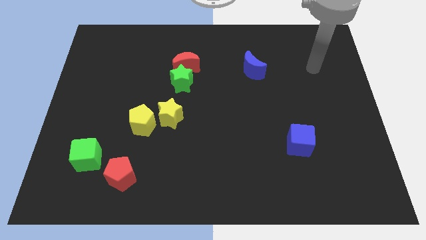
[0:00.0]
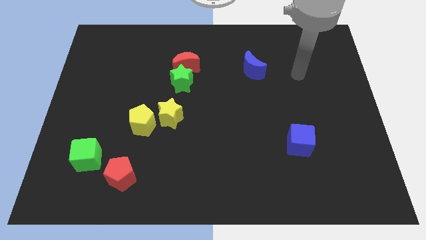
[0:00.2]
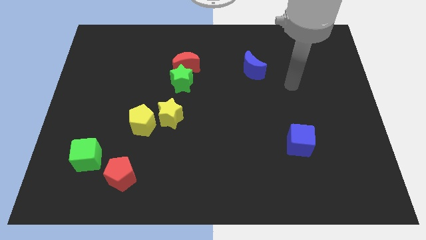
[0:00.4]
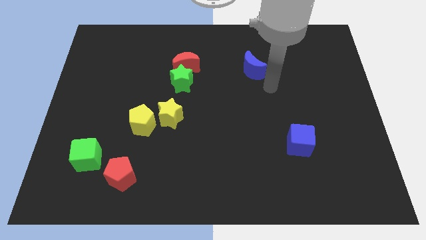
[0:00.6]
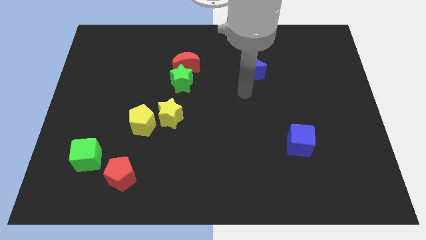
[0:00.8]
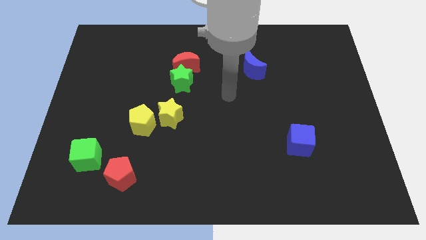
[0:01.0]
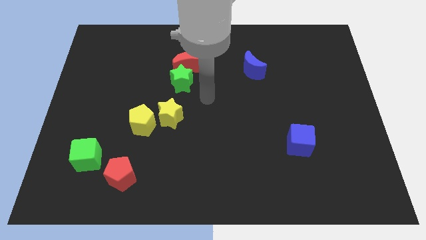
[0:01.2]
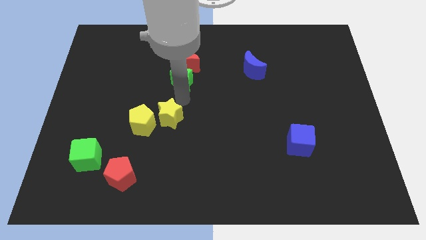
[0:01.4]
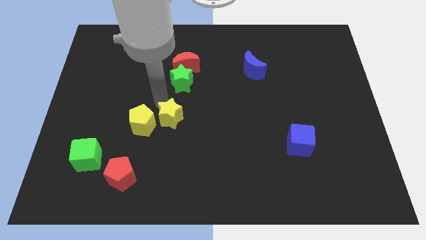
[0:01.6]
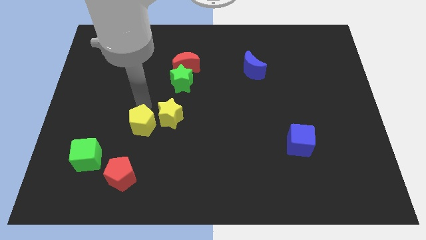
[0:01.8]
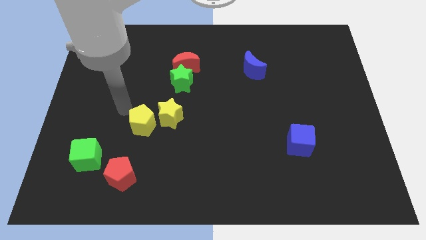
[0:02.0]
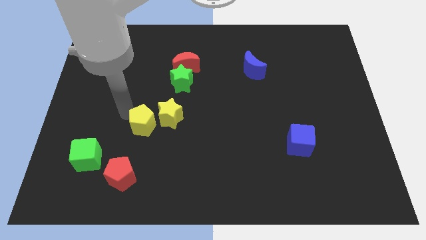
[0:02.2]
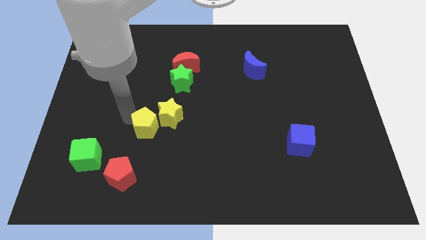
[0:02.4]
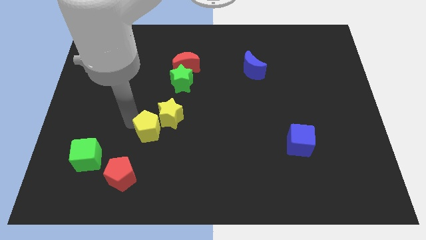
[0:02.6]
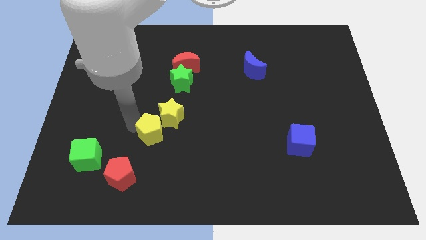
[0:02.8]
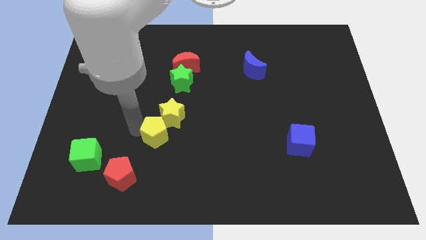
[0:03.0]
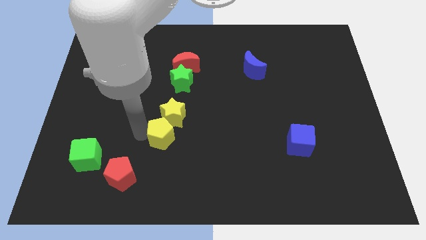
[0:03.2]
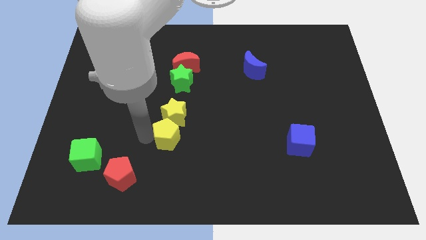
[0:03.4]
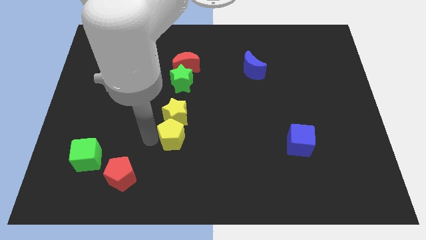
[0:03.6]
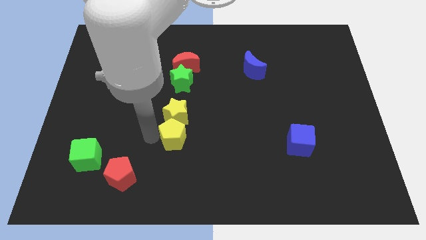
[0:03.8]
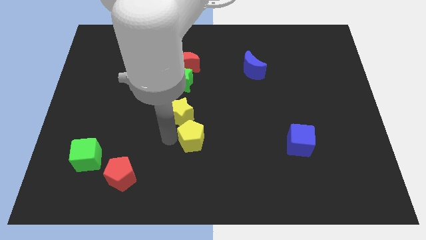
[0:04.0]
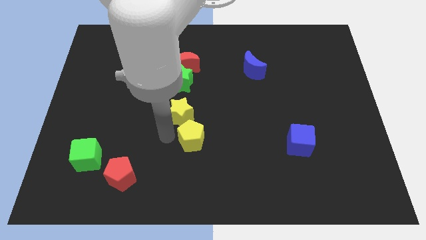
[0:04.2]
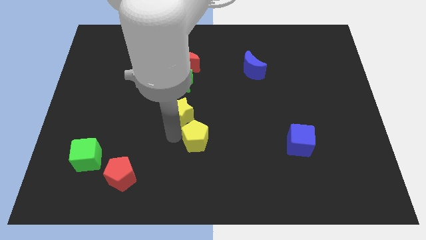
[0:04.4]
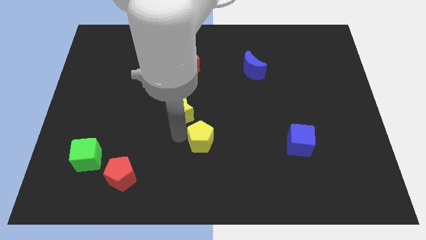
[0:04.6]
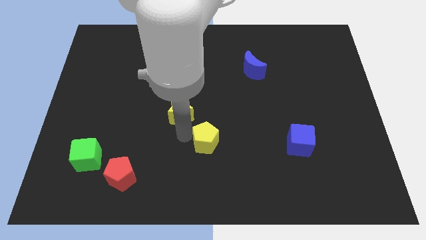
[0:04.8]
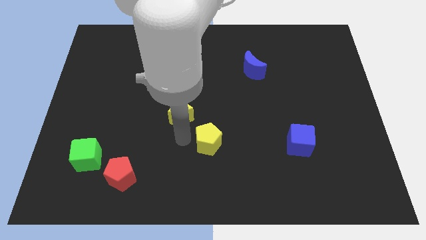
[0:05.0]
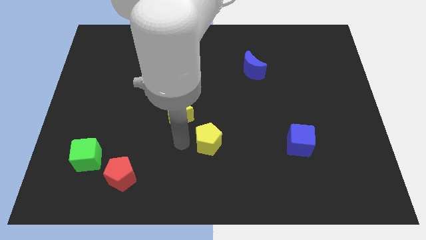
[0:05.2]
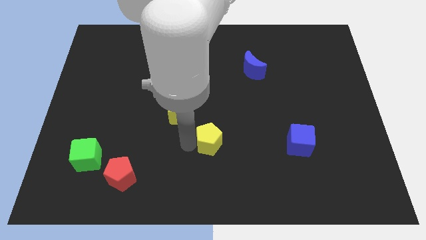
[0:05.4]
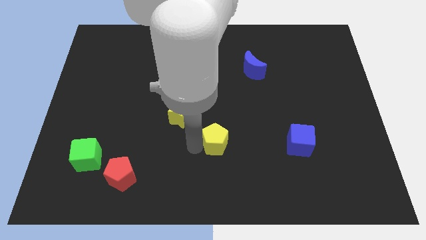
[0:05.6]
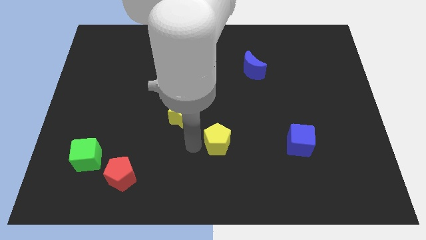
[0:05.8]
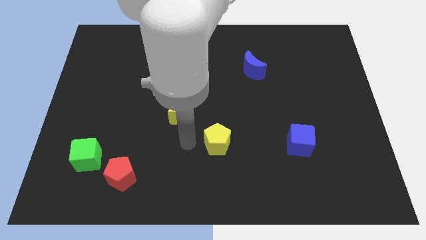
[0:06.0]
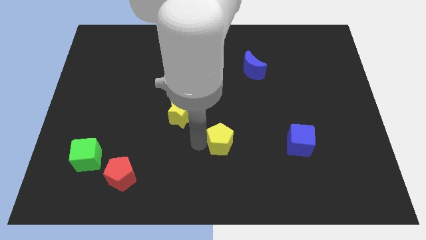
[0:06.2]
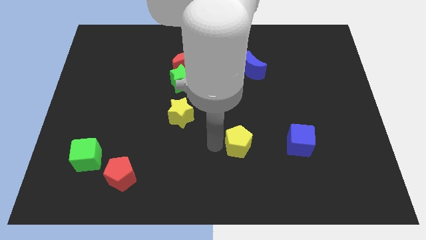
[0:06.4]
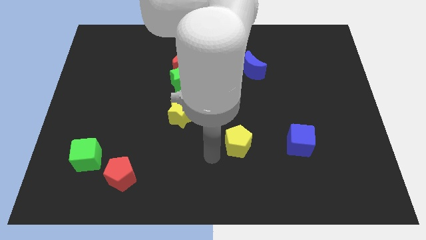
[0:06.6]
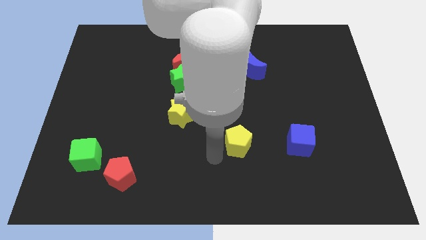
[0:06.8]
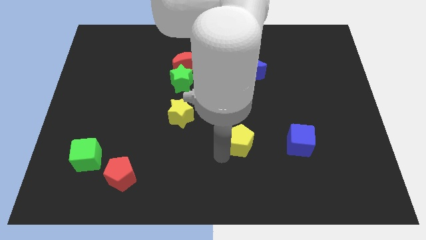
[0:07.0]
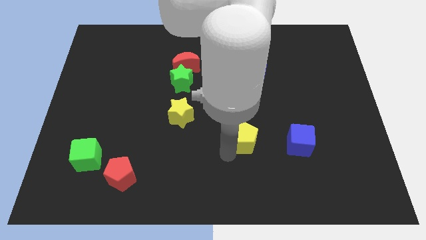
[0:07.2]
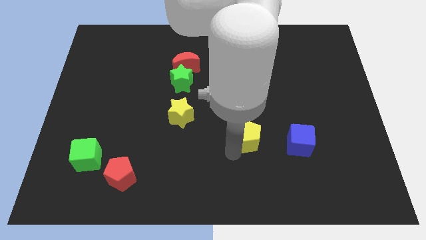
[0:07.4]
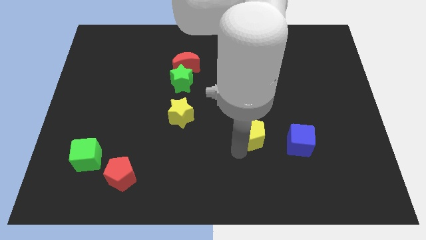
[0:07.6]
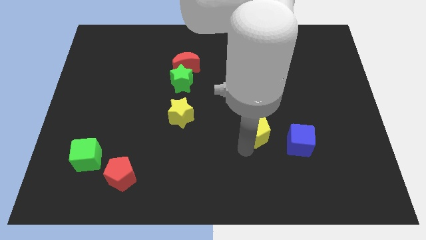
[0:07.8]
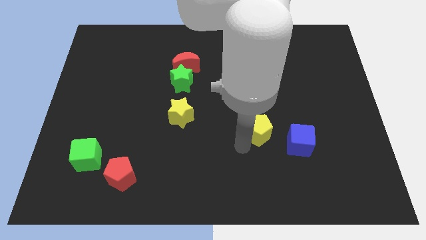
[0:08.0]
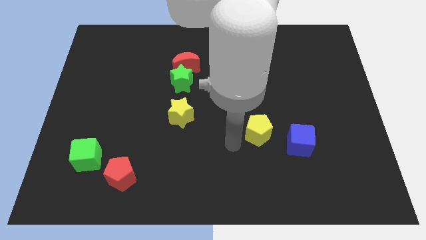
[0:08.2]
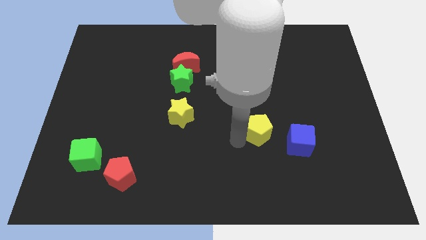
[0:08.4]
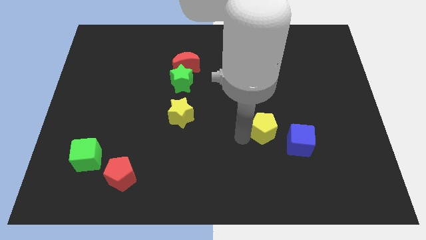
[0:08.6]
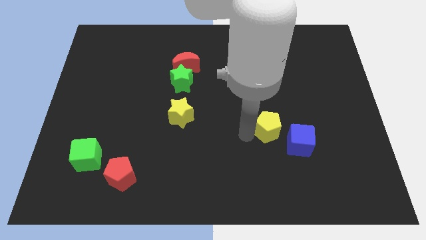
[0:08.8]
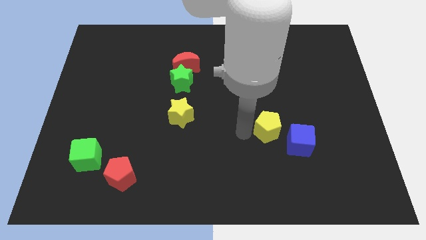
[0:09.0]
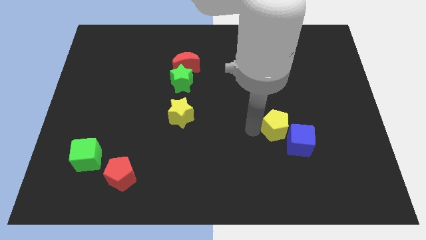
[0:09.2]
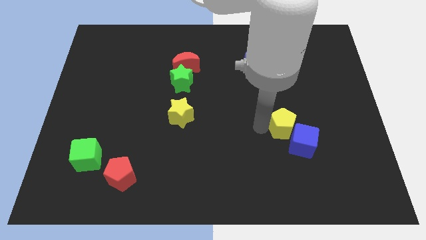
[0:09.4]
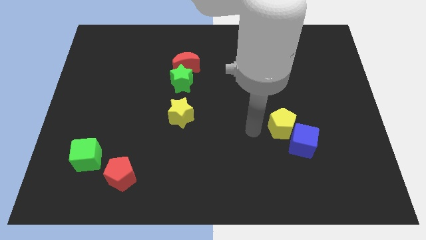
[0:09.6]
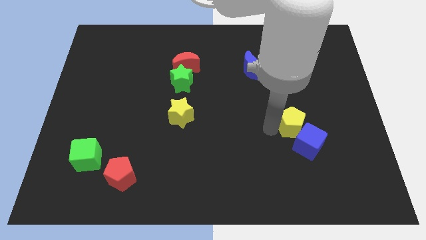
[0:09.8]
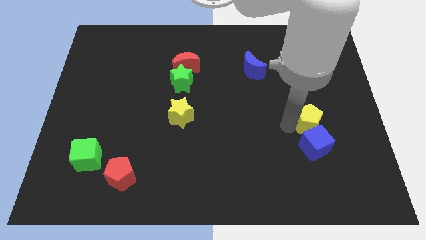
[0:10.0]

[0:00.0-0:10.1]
put the yellow pentagon diagonally up and to the right of the blue cube

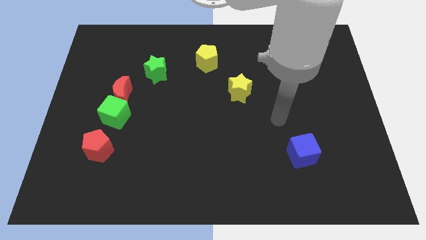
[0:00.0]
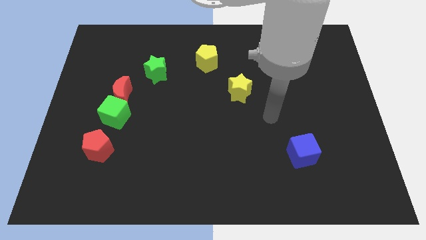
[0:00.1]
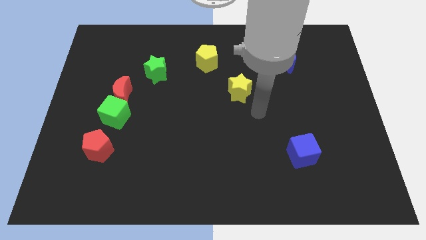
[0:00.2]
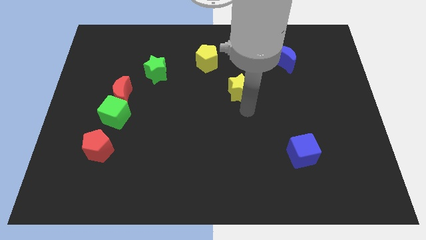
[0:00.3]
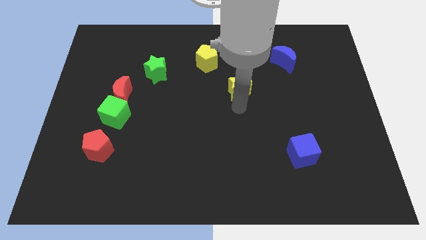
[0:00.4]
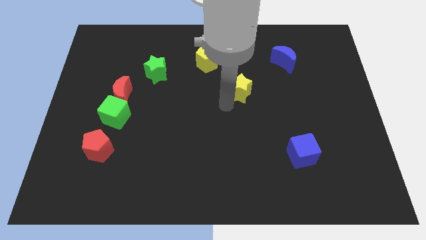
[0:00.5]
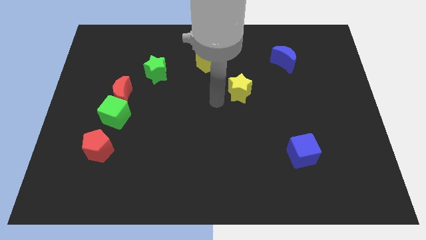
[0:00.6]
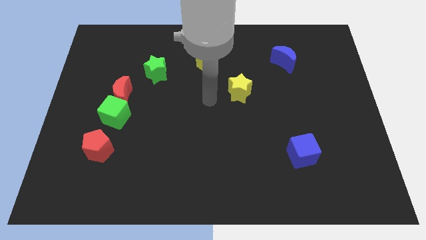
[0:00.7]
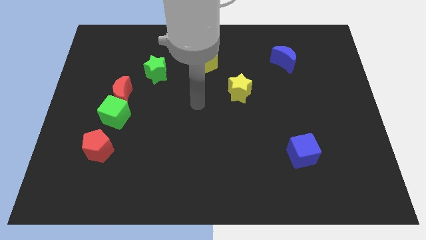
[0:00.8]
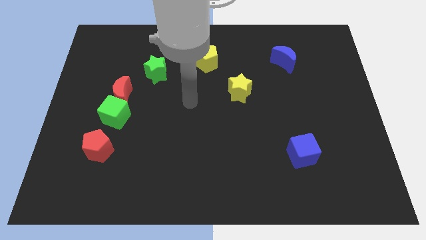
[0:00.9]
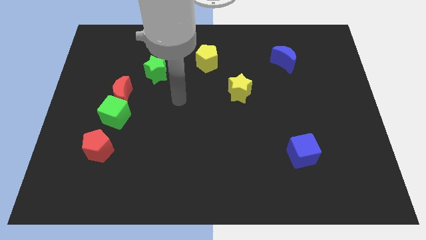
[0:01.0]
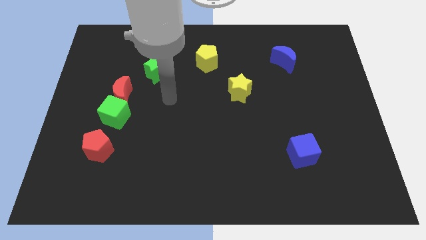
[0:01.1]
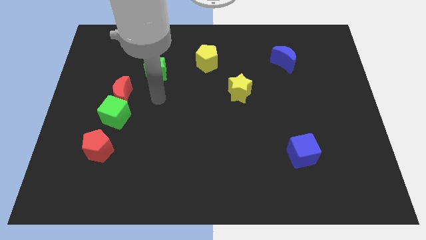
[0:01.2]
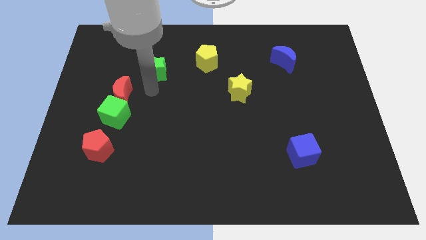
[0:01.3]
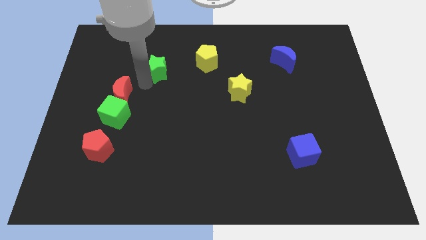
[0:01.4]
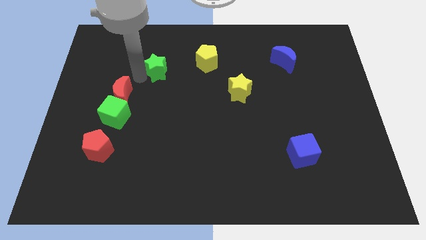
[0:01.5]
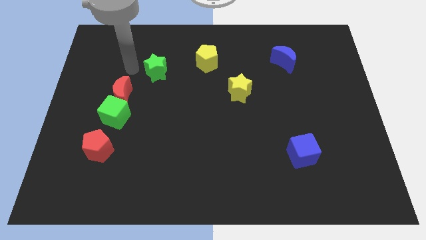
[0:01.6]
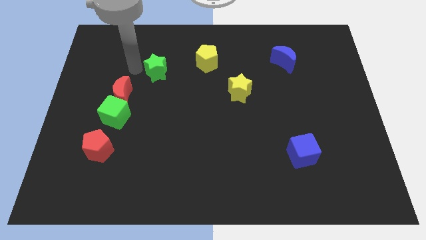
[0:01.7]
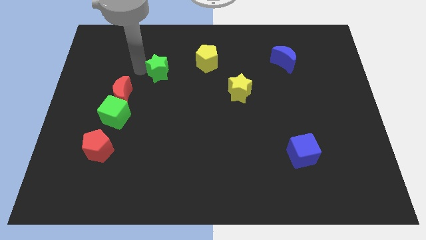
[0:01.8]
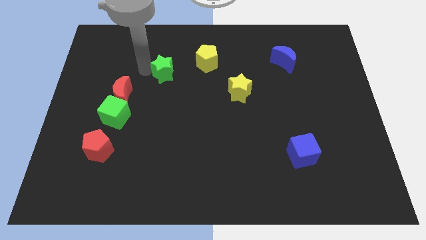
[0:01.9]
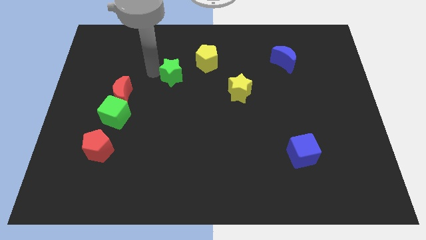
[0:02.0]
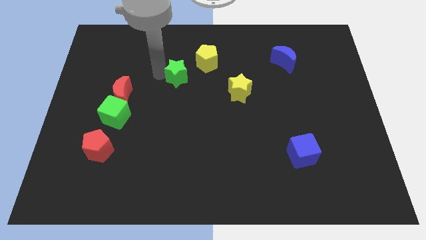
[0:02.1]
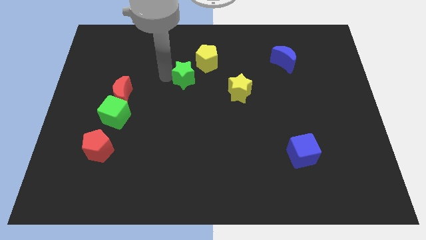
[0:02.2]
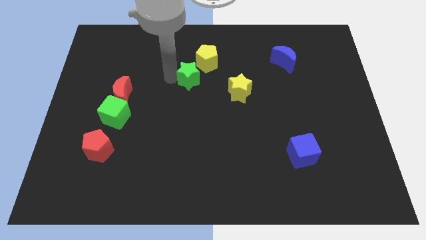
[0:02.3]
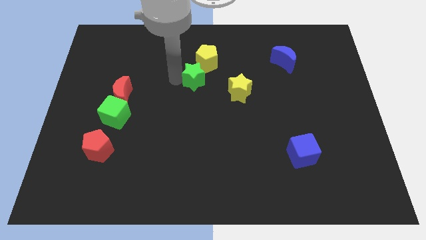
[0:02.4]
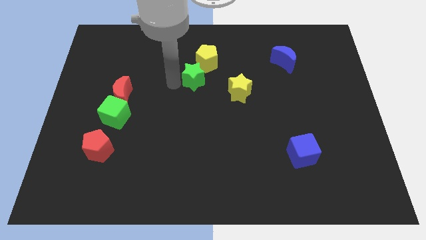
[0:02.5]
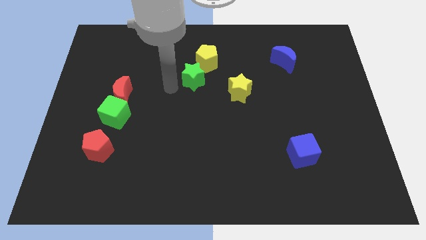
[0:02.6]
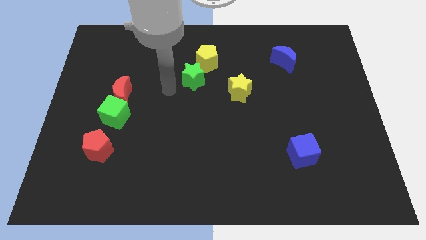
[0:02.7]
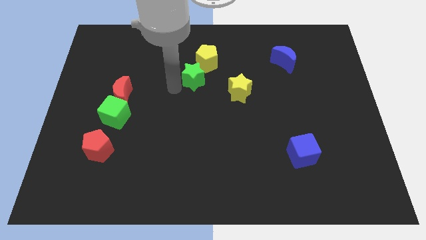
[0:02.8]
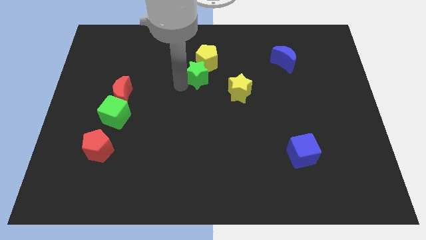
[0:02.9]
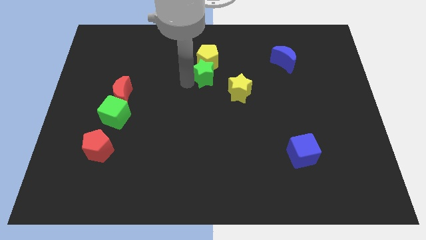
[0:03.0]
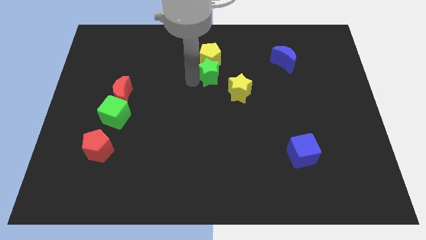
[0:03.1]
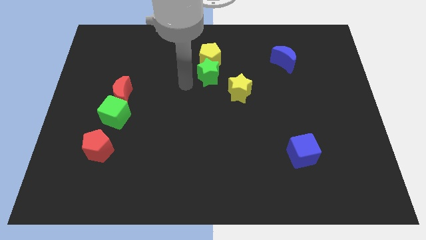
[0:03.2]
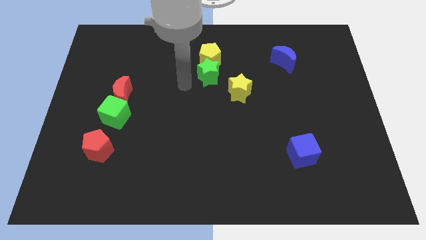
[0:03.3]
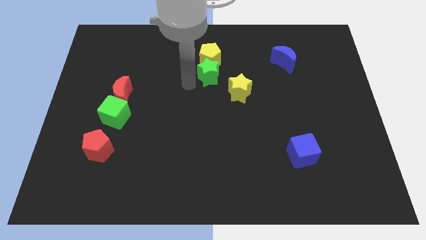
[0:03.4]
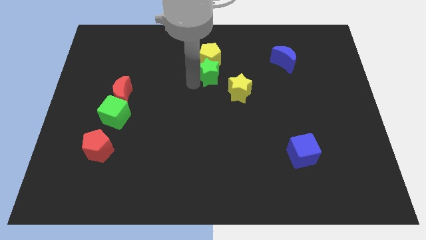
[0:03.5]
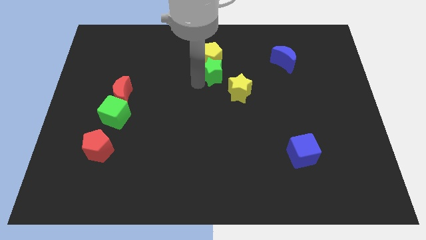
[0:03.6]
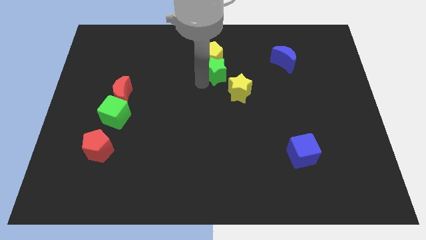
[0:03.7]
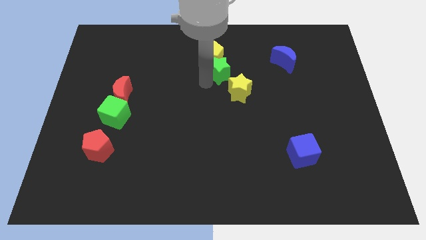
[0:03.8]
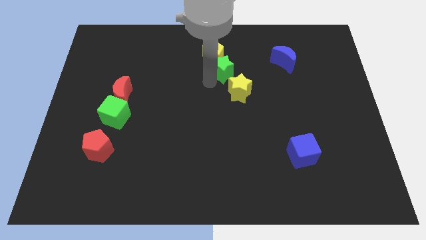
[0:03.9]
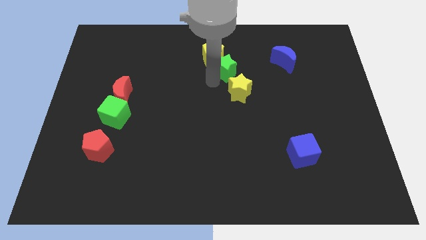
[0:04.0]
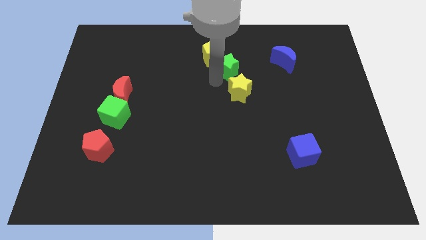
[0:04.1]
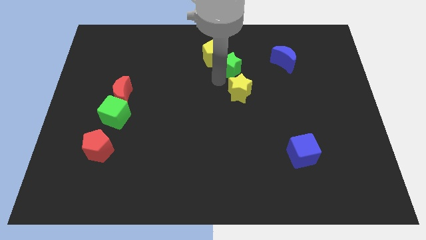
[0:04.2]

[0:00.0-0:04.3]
put the green star to the left side of the blue moon
